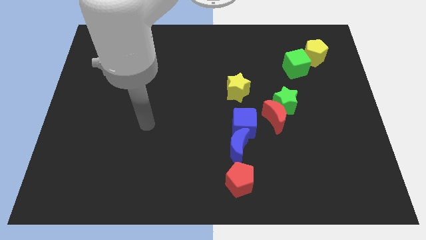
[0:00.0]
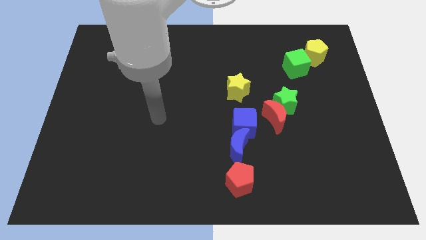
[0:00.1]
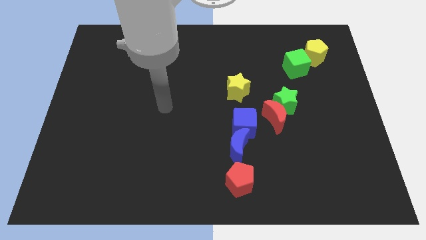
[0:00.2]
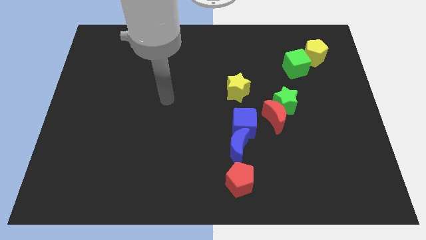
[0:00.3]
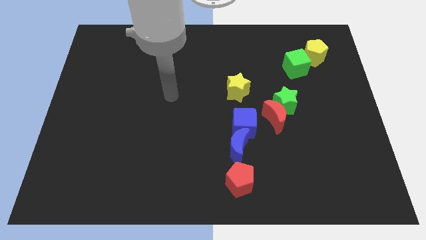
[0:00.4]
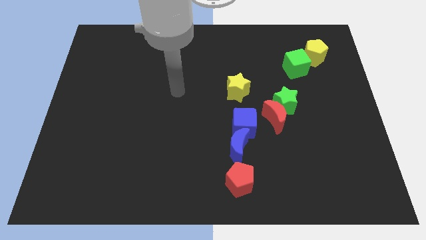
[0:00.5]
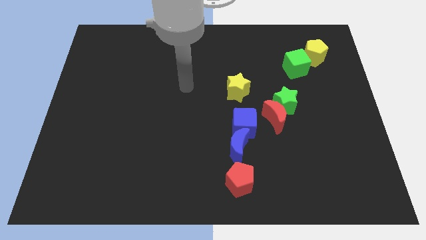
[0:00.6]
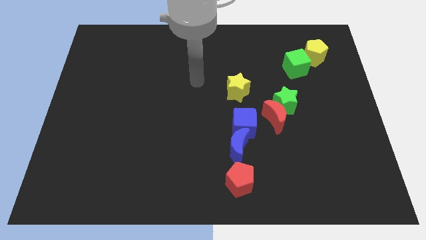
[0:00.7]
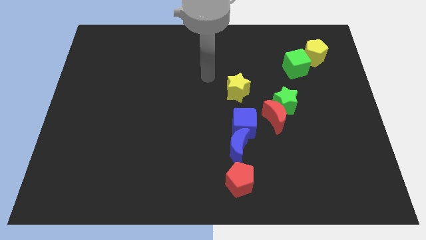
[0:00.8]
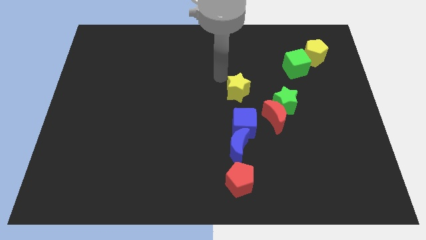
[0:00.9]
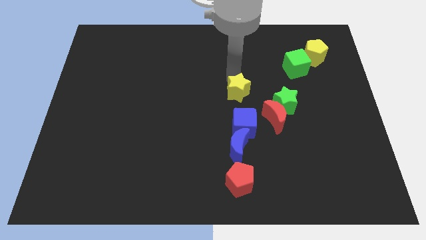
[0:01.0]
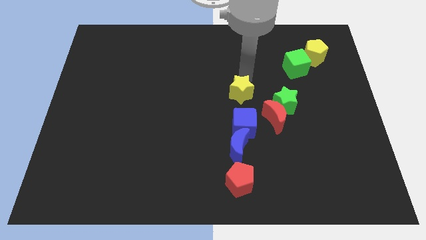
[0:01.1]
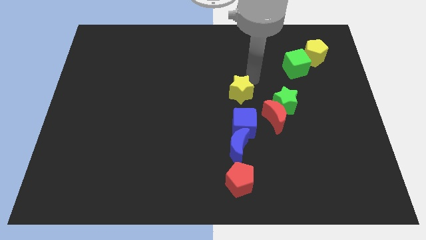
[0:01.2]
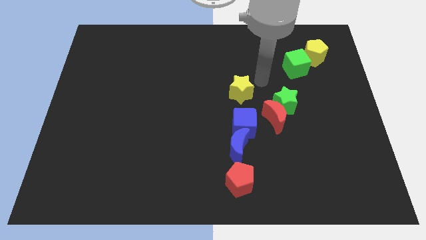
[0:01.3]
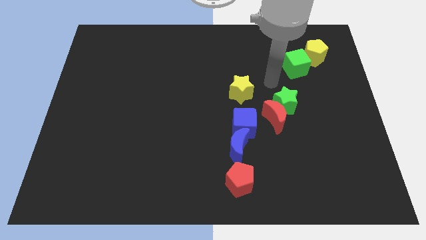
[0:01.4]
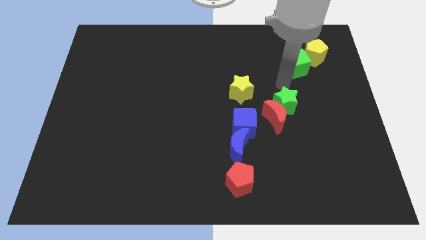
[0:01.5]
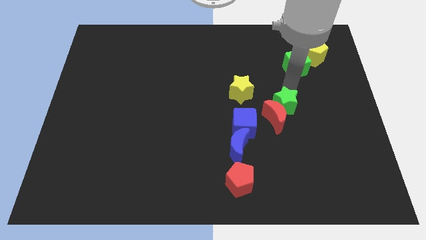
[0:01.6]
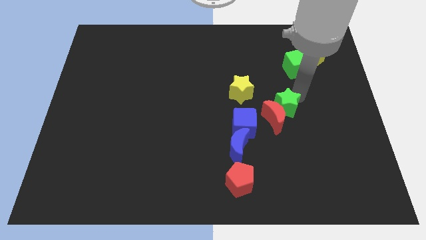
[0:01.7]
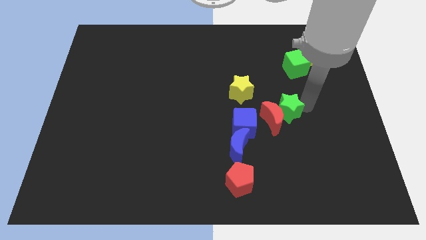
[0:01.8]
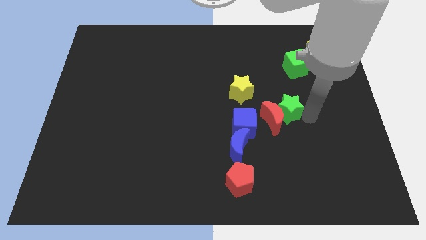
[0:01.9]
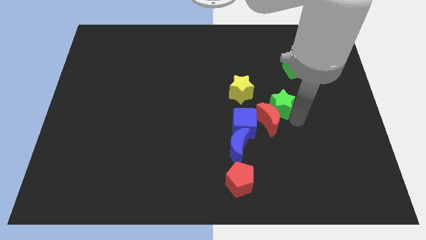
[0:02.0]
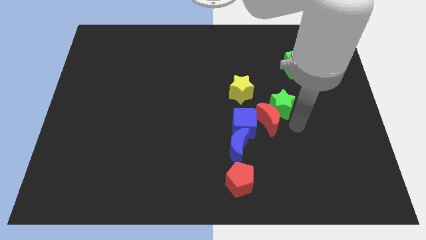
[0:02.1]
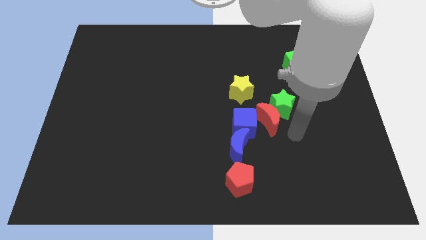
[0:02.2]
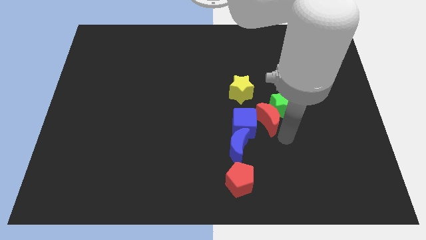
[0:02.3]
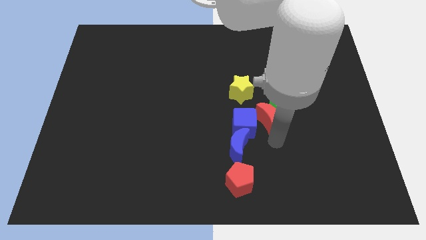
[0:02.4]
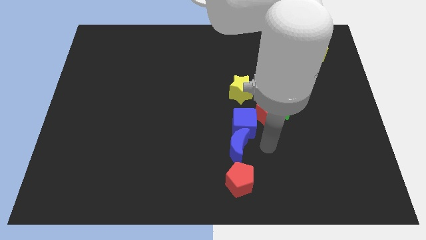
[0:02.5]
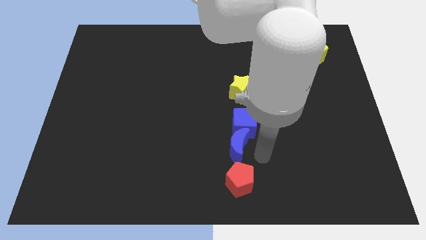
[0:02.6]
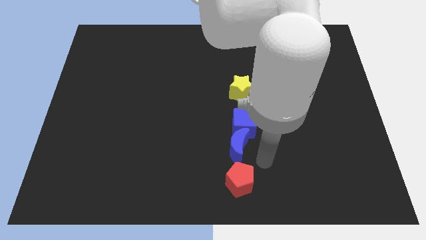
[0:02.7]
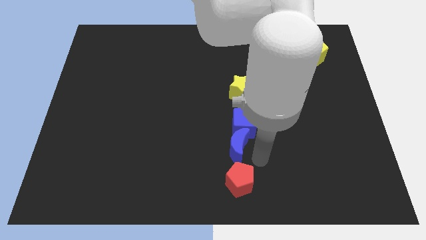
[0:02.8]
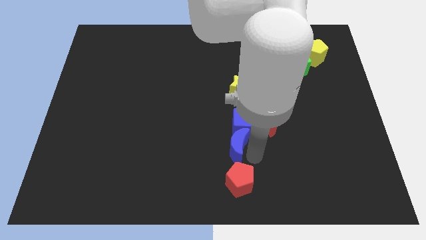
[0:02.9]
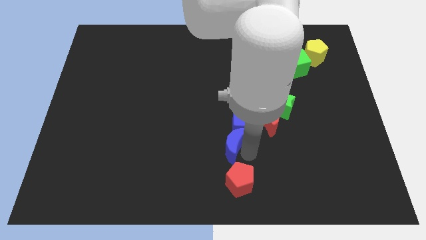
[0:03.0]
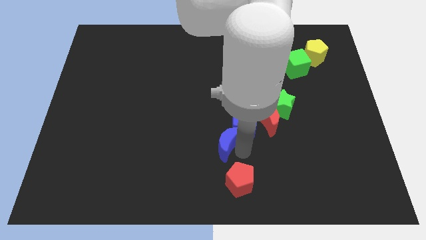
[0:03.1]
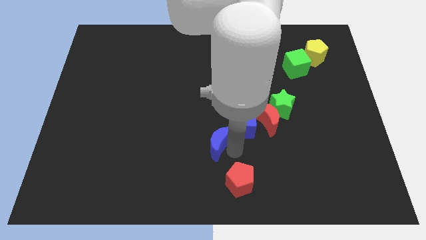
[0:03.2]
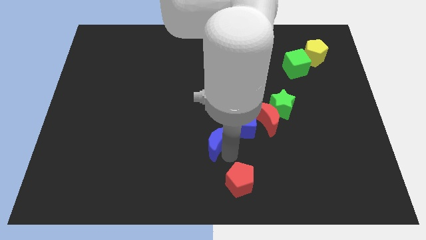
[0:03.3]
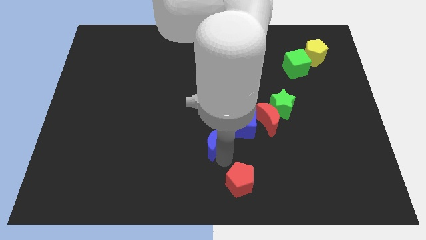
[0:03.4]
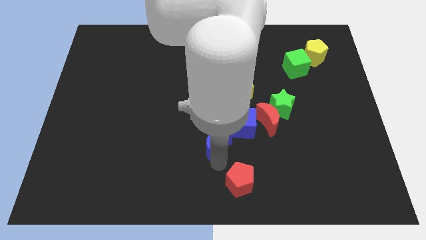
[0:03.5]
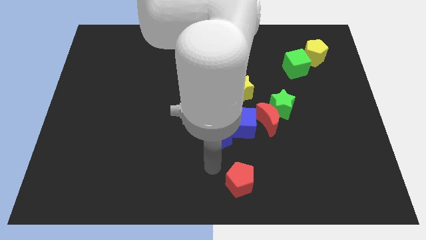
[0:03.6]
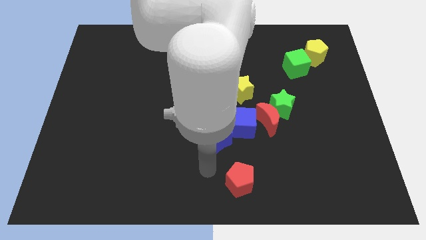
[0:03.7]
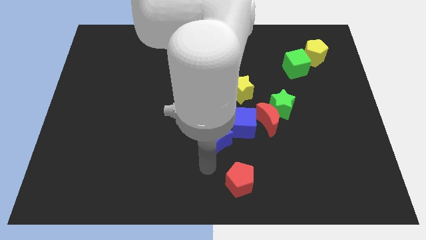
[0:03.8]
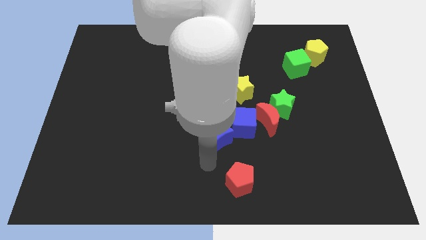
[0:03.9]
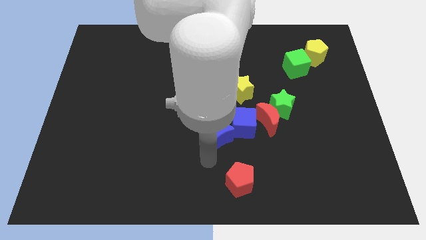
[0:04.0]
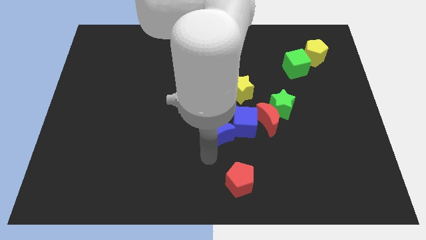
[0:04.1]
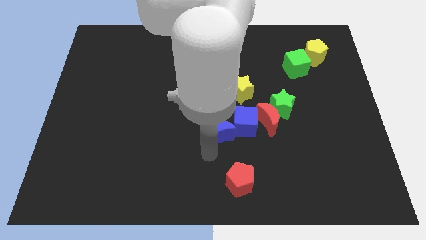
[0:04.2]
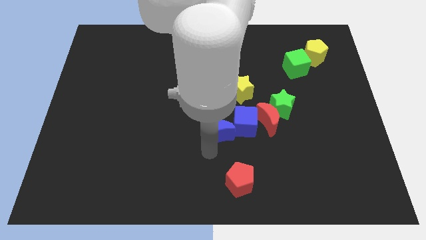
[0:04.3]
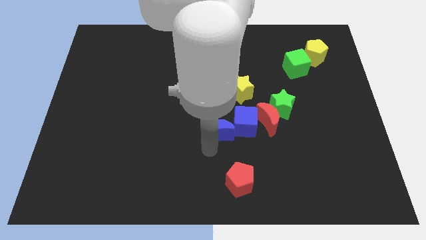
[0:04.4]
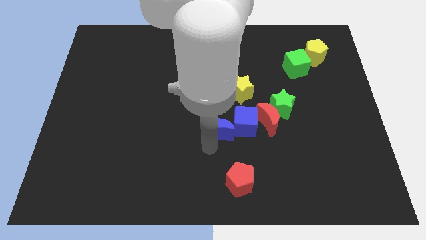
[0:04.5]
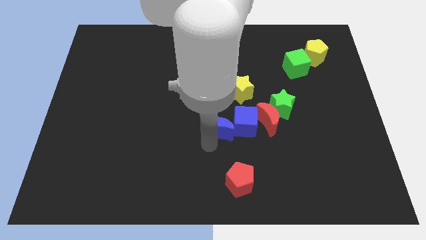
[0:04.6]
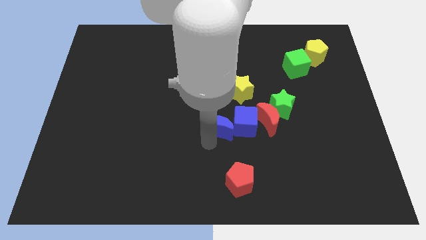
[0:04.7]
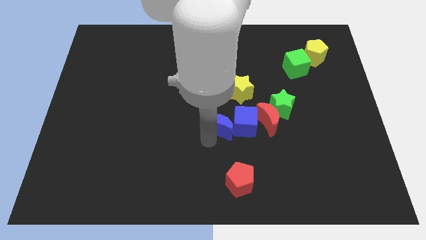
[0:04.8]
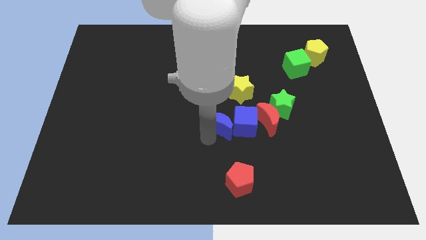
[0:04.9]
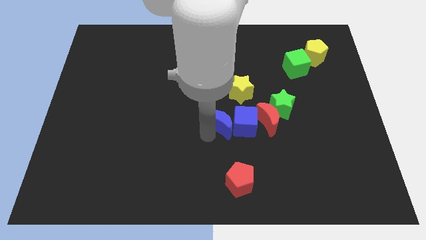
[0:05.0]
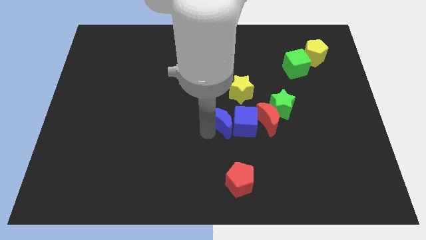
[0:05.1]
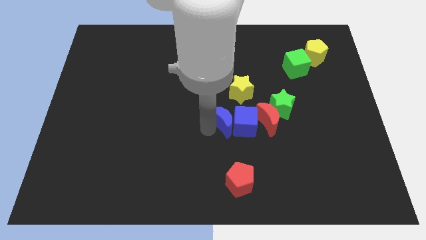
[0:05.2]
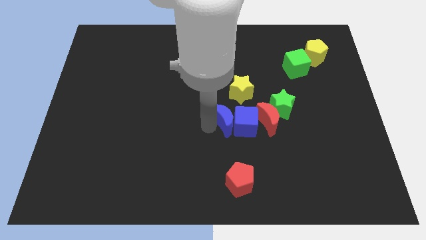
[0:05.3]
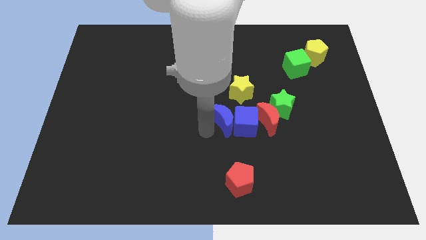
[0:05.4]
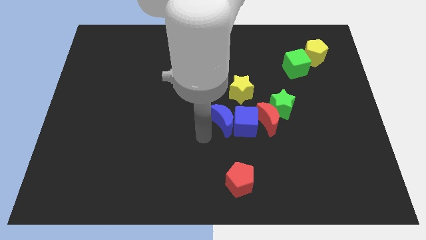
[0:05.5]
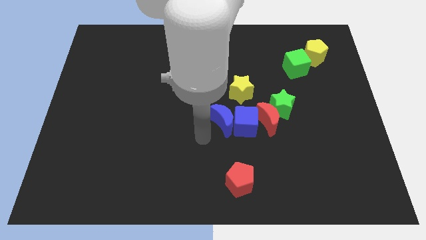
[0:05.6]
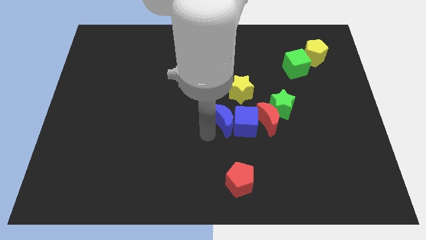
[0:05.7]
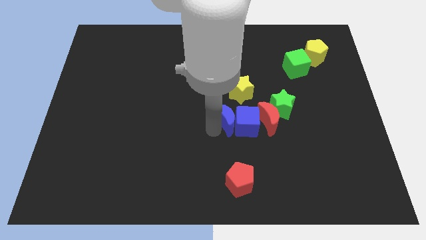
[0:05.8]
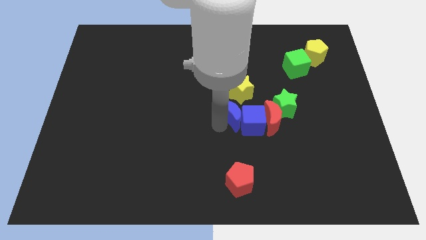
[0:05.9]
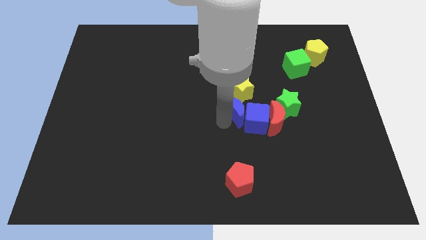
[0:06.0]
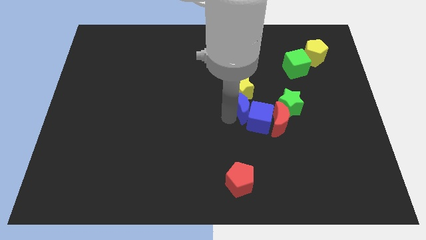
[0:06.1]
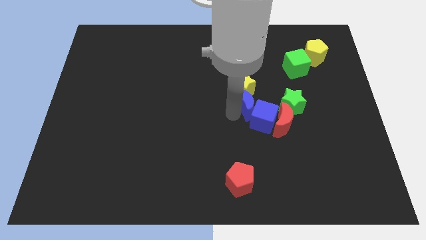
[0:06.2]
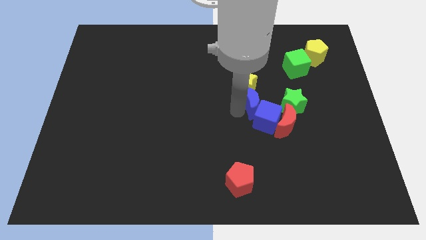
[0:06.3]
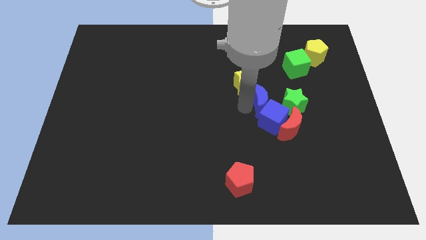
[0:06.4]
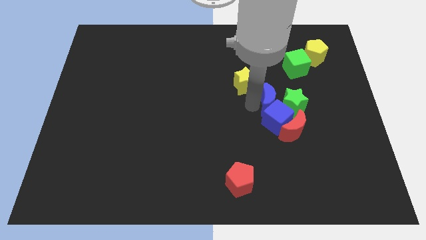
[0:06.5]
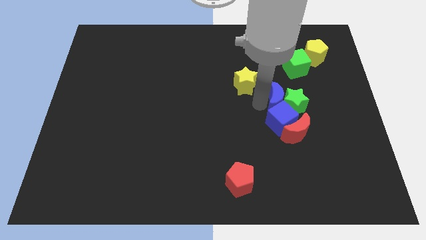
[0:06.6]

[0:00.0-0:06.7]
put the blue moon to the top side of the red moon
